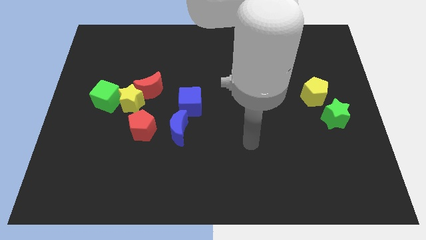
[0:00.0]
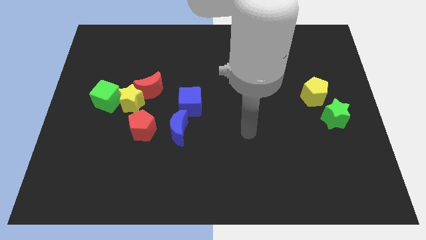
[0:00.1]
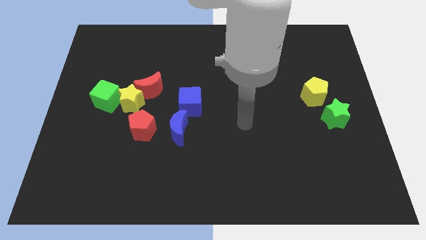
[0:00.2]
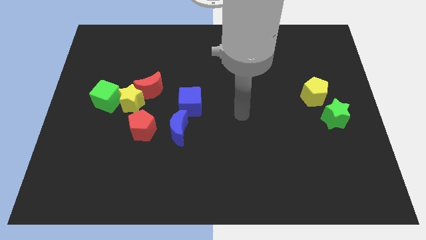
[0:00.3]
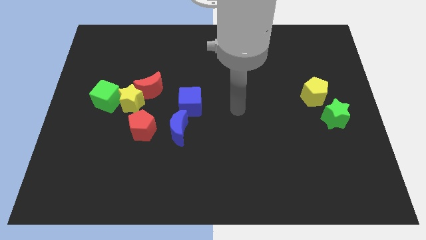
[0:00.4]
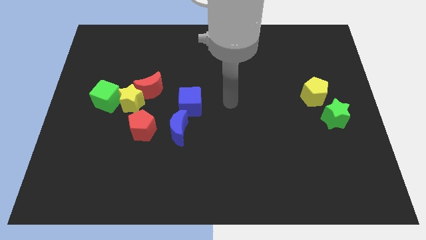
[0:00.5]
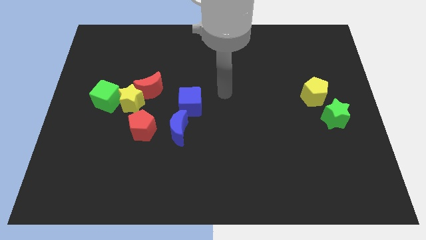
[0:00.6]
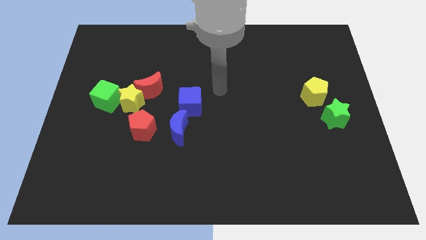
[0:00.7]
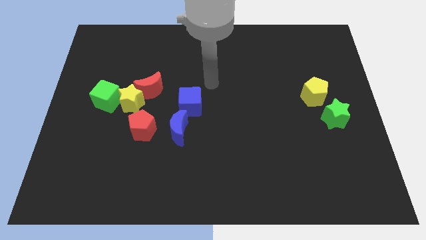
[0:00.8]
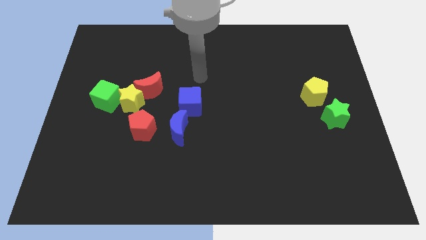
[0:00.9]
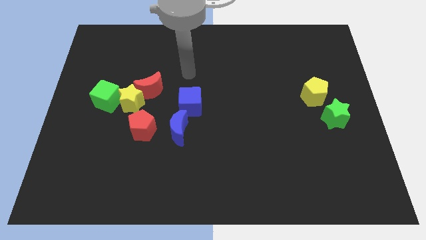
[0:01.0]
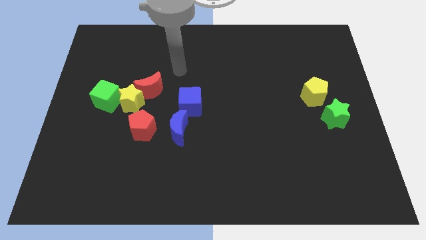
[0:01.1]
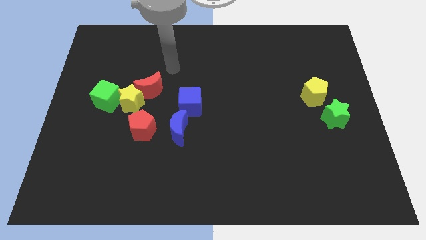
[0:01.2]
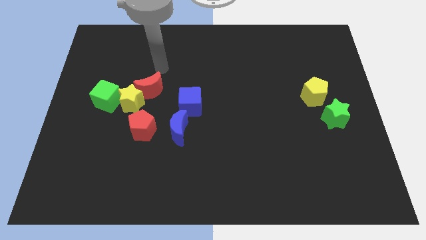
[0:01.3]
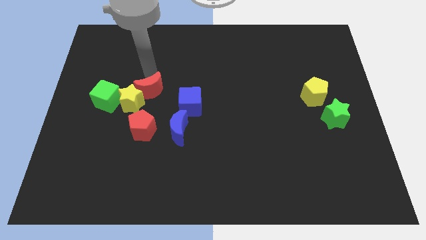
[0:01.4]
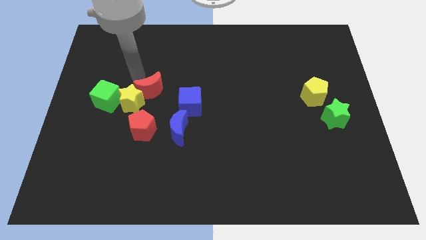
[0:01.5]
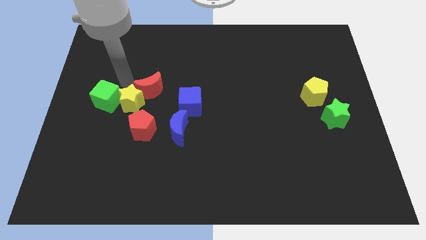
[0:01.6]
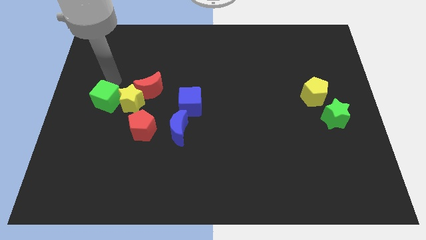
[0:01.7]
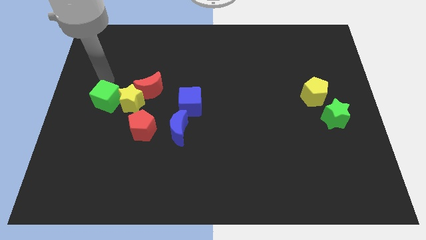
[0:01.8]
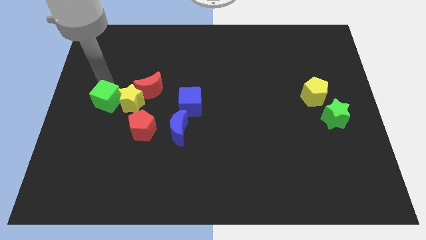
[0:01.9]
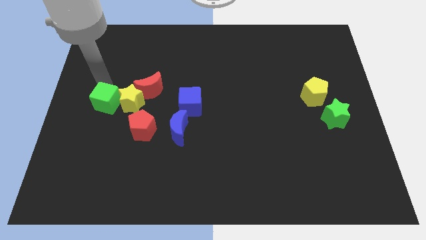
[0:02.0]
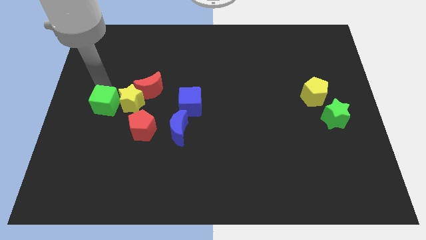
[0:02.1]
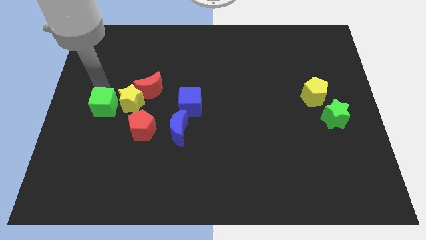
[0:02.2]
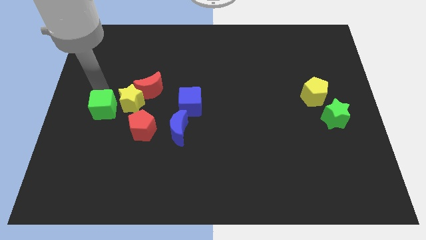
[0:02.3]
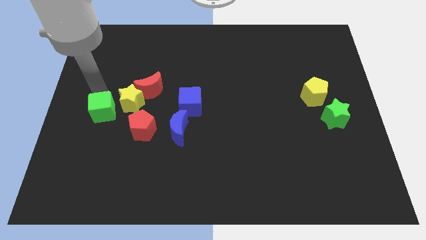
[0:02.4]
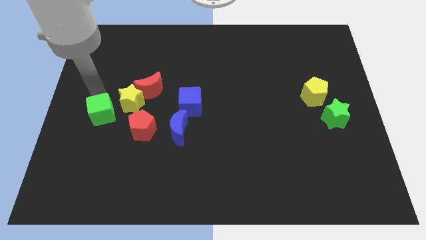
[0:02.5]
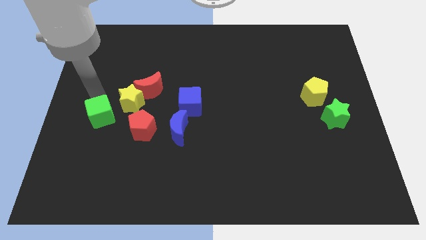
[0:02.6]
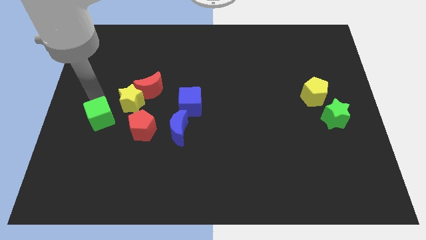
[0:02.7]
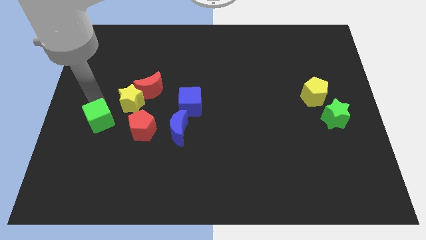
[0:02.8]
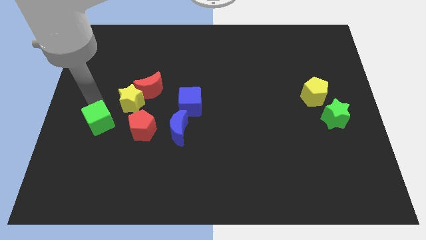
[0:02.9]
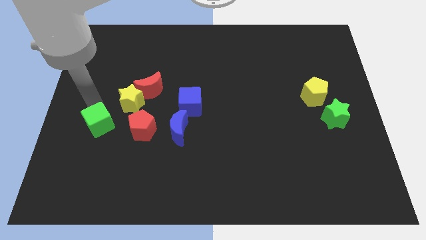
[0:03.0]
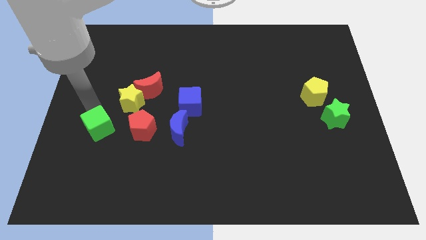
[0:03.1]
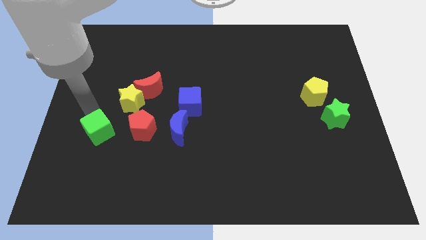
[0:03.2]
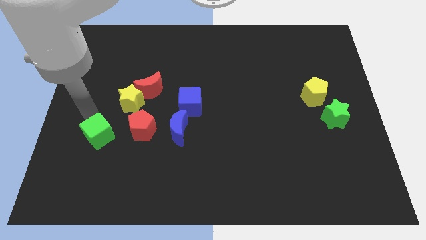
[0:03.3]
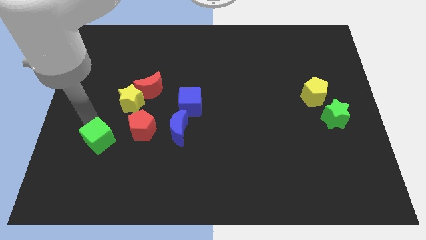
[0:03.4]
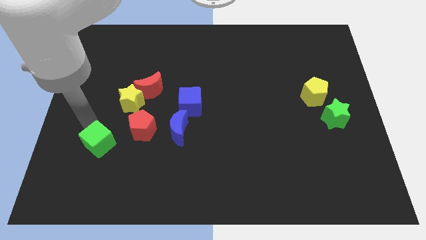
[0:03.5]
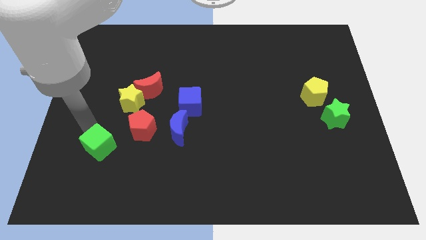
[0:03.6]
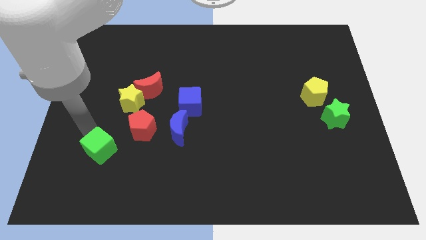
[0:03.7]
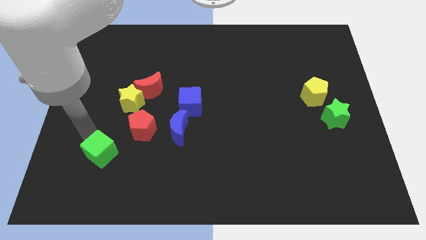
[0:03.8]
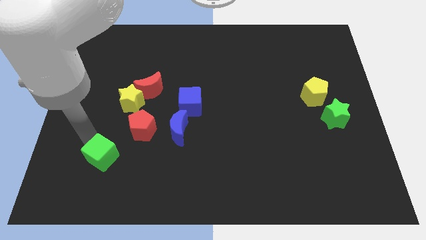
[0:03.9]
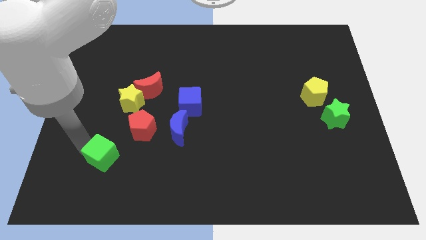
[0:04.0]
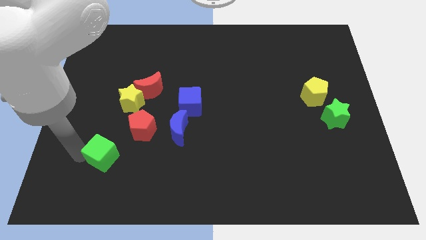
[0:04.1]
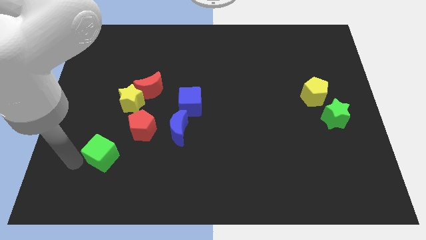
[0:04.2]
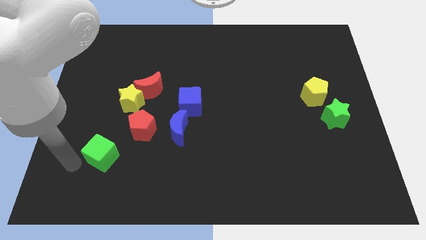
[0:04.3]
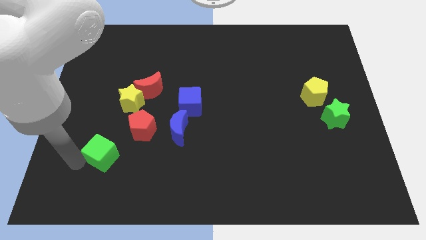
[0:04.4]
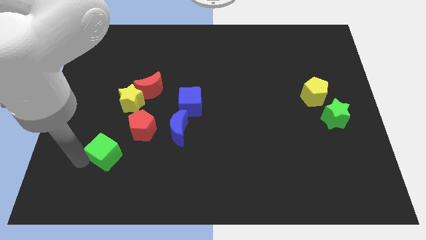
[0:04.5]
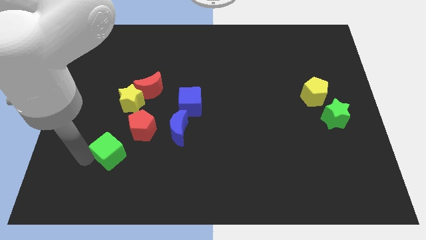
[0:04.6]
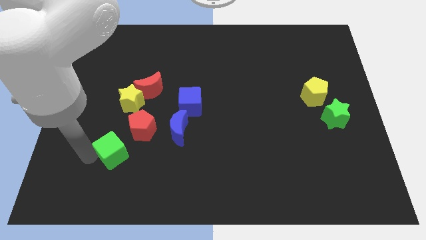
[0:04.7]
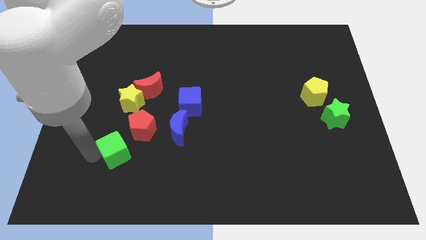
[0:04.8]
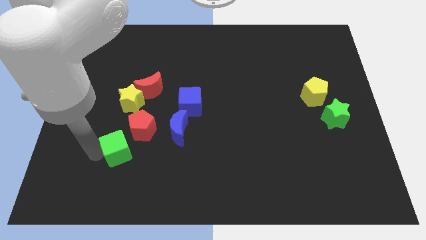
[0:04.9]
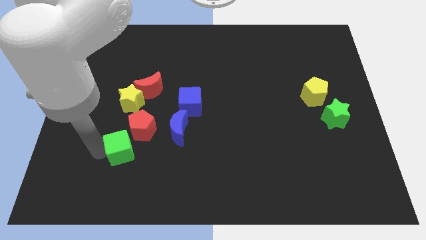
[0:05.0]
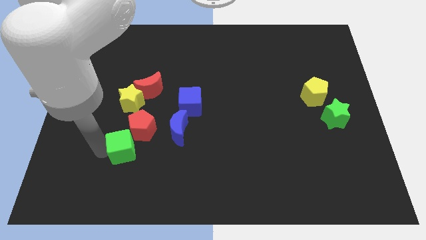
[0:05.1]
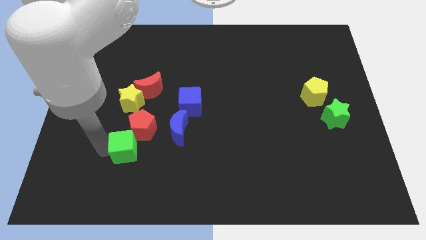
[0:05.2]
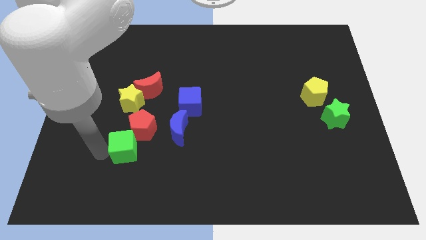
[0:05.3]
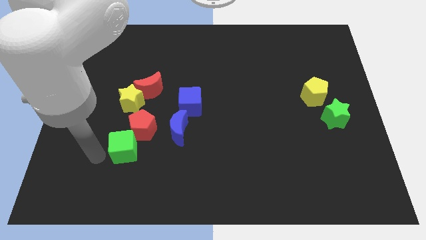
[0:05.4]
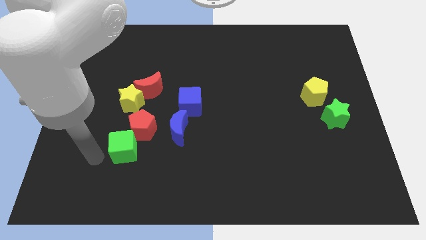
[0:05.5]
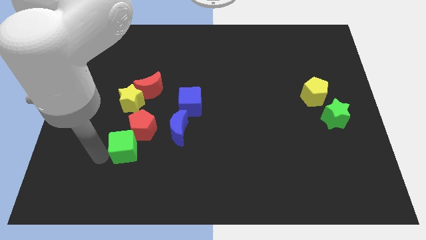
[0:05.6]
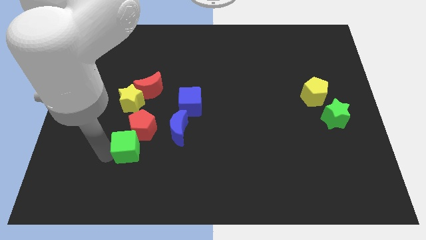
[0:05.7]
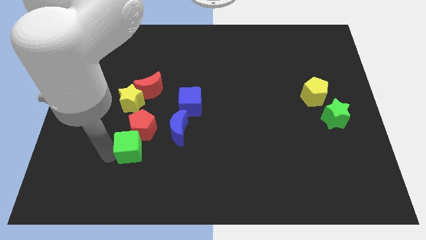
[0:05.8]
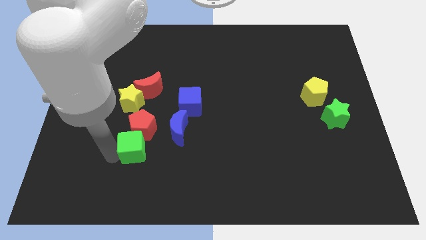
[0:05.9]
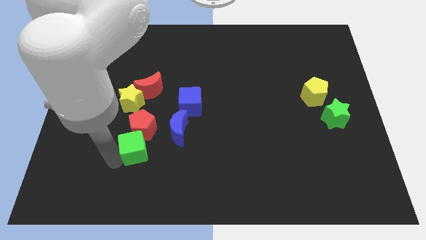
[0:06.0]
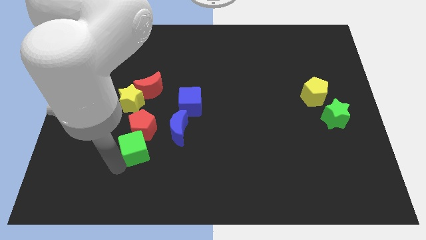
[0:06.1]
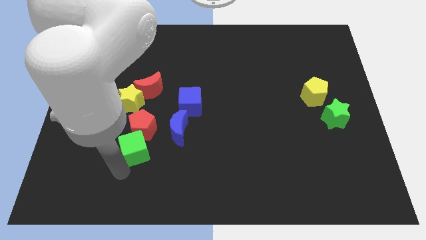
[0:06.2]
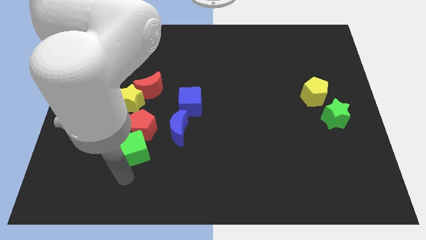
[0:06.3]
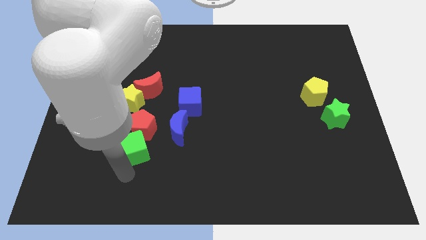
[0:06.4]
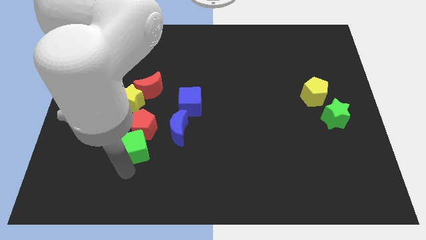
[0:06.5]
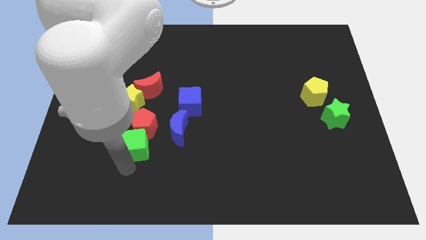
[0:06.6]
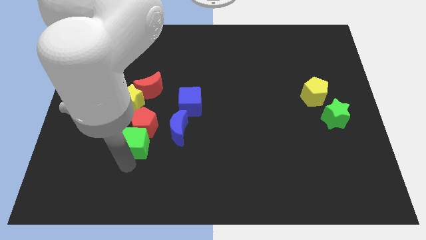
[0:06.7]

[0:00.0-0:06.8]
slide the green cube to the bottom of the red moon

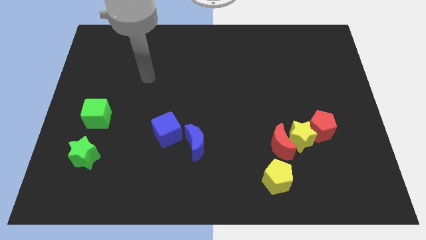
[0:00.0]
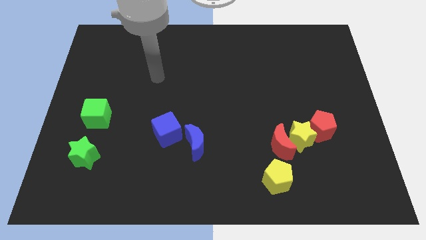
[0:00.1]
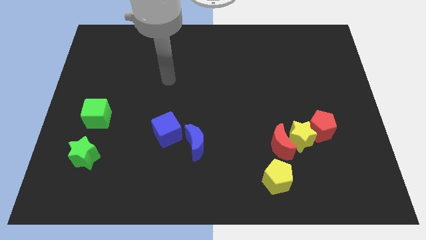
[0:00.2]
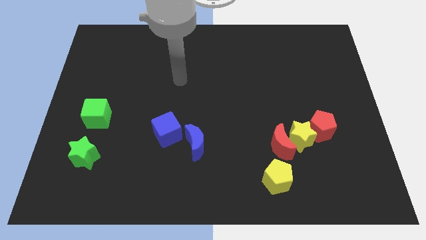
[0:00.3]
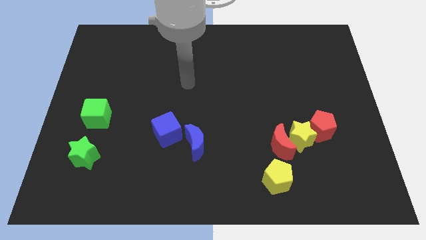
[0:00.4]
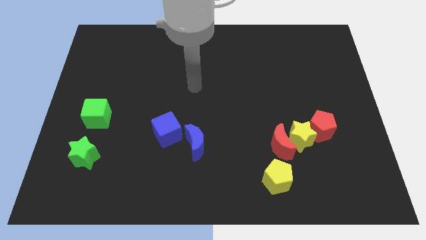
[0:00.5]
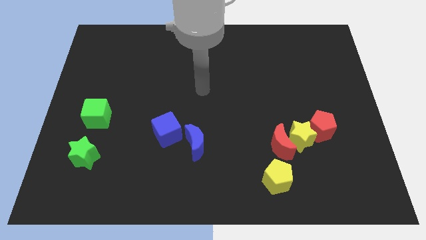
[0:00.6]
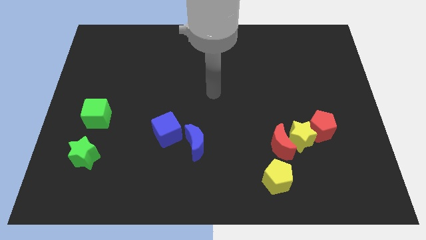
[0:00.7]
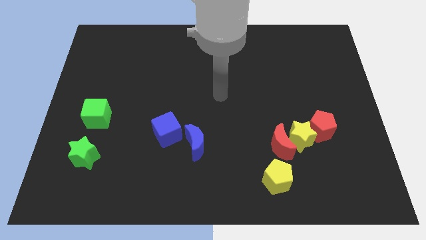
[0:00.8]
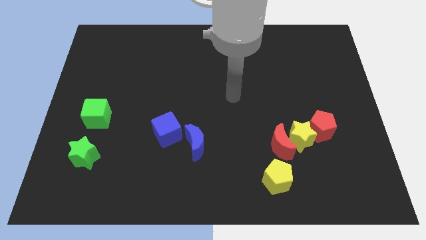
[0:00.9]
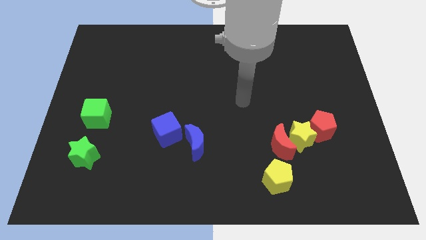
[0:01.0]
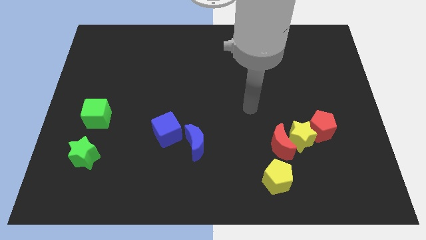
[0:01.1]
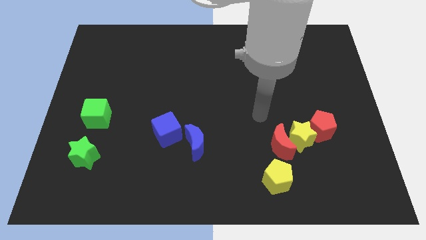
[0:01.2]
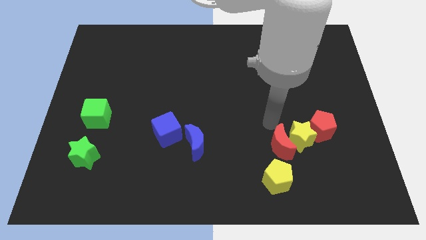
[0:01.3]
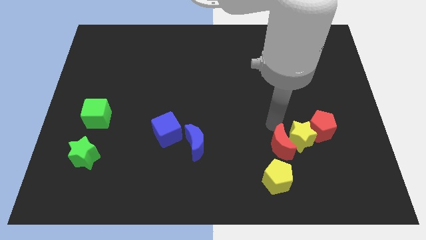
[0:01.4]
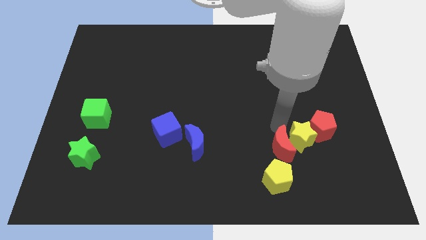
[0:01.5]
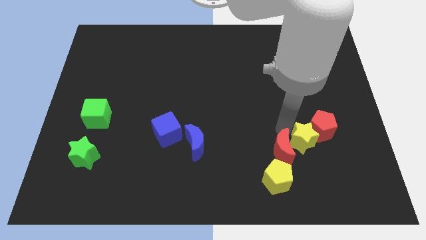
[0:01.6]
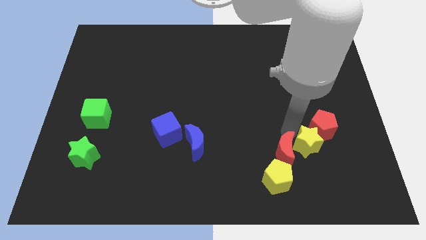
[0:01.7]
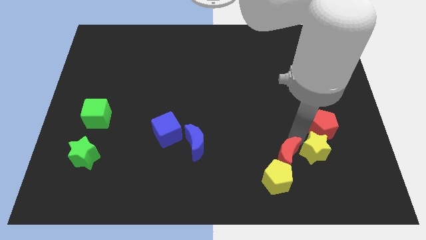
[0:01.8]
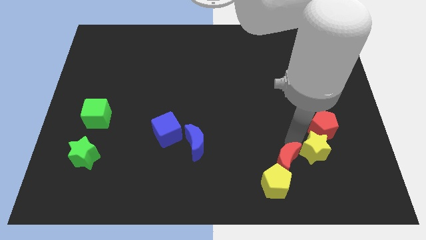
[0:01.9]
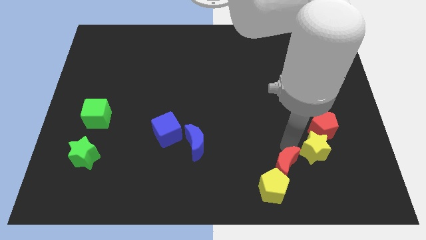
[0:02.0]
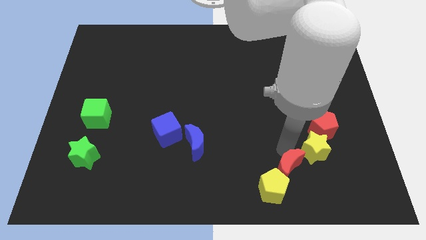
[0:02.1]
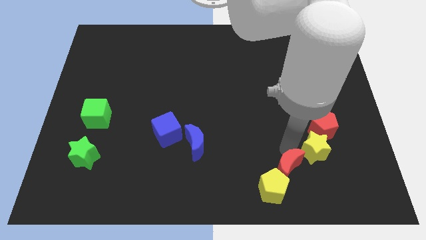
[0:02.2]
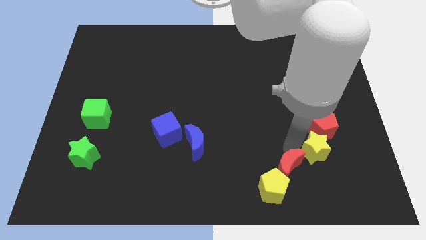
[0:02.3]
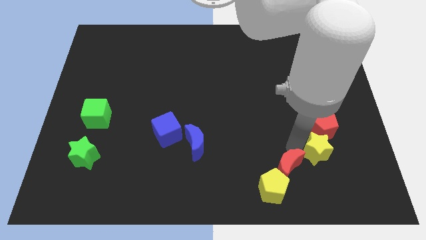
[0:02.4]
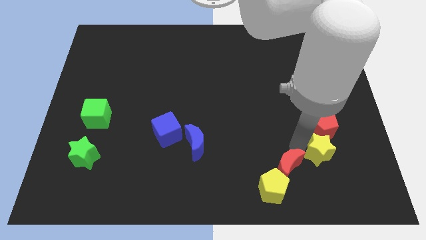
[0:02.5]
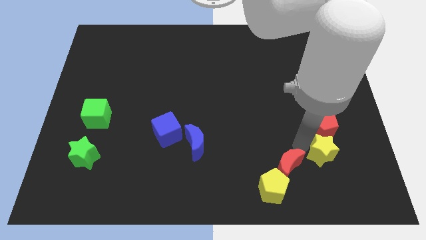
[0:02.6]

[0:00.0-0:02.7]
slide the yellow star diagonally down and to the right of the red pentagon
